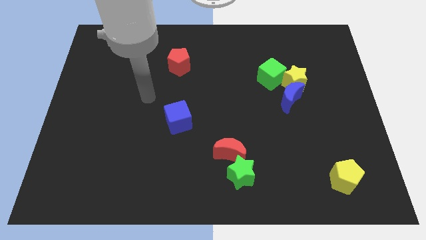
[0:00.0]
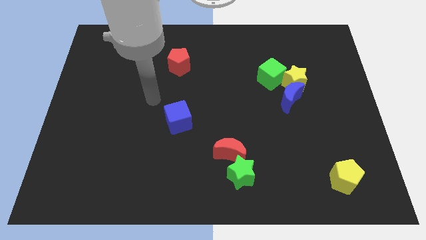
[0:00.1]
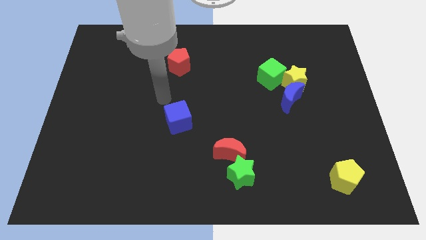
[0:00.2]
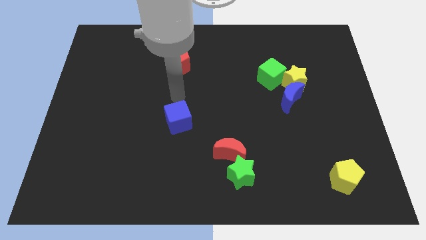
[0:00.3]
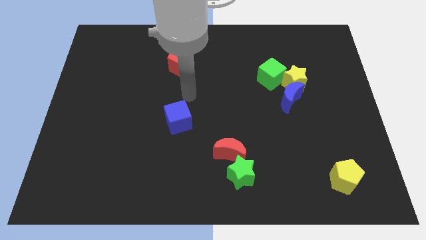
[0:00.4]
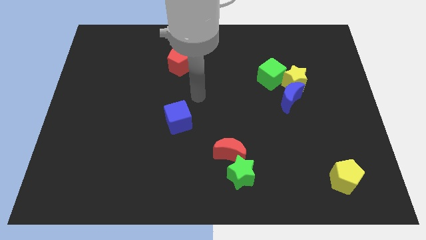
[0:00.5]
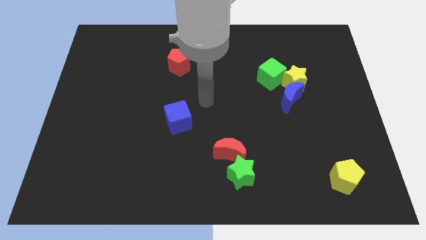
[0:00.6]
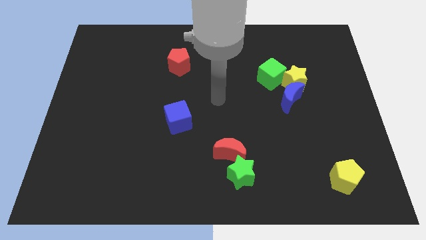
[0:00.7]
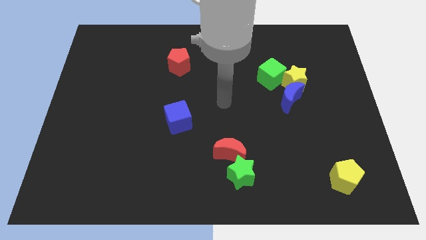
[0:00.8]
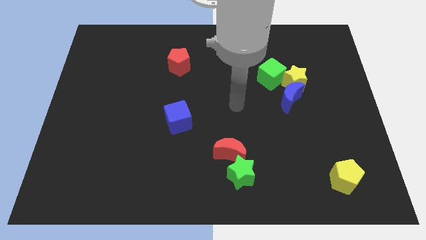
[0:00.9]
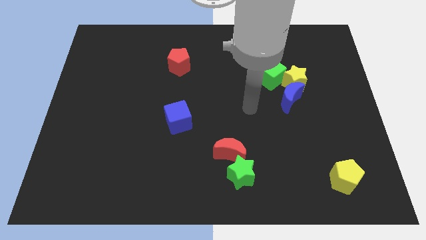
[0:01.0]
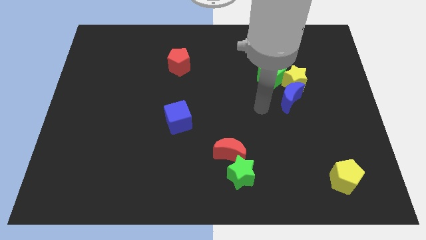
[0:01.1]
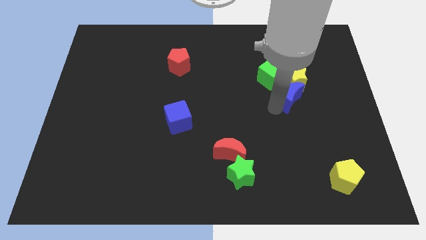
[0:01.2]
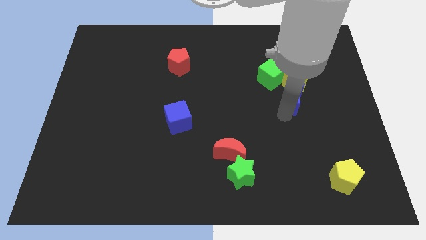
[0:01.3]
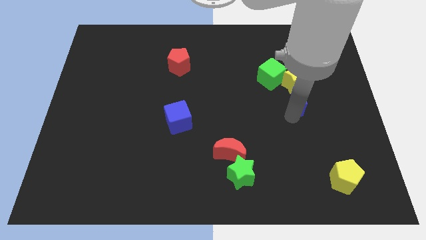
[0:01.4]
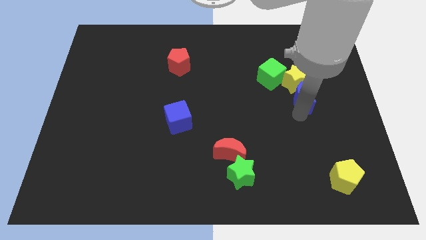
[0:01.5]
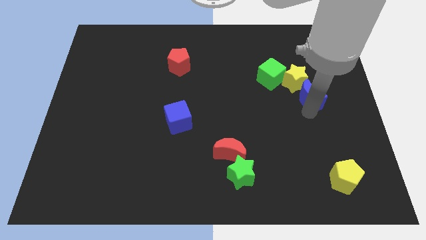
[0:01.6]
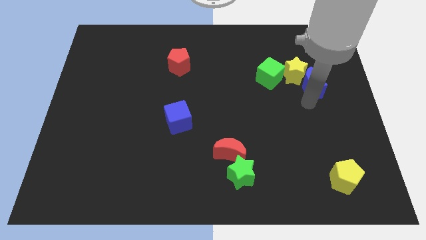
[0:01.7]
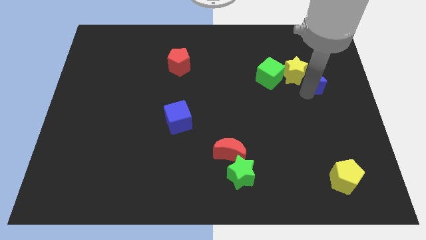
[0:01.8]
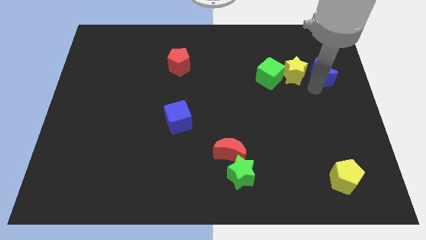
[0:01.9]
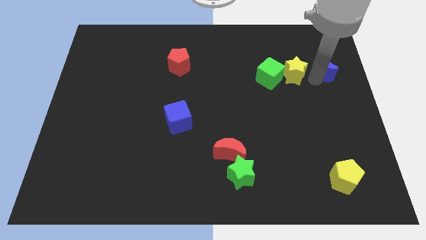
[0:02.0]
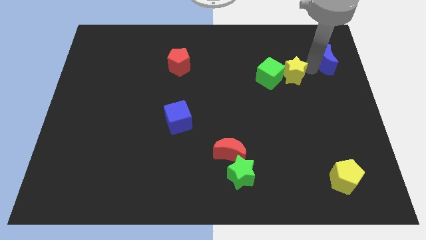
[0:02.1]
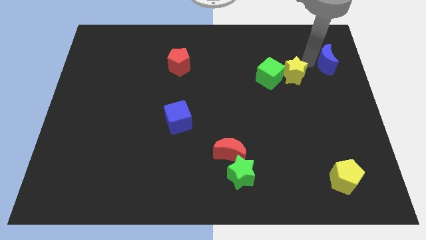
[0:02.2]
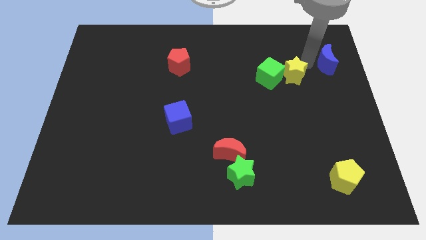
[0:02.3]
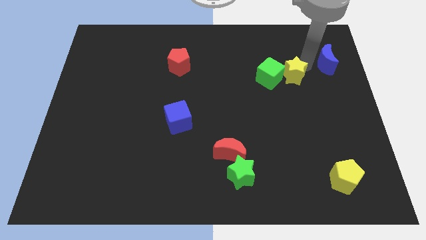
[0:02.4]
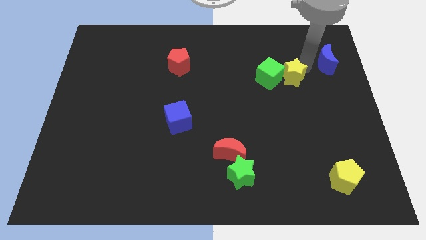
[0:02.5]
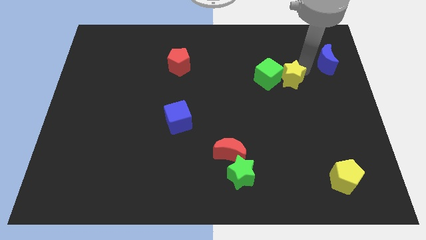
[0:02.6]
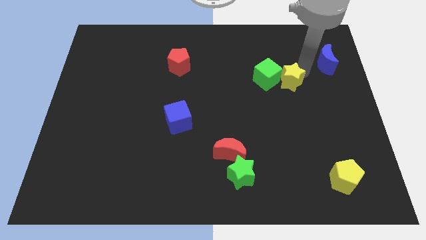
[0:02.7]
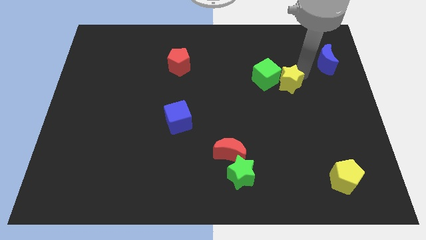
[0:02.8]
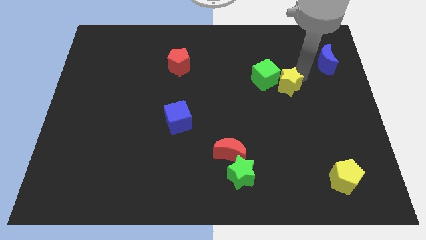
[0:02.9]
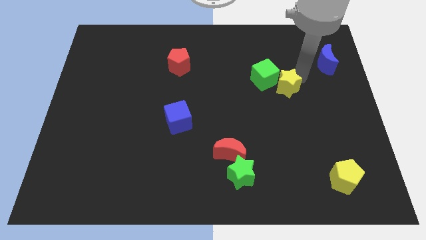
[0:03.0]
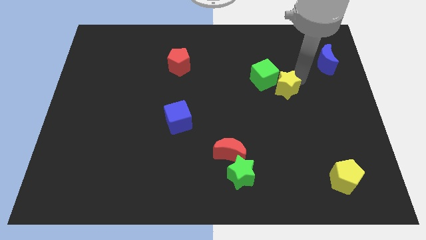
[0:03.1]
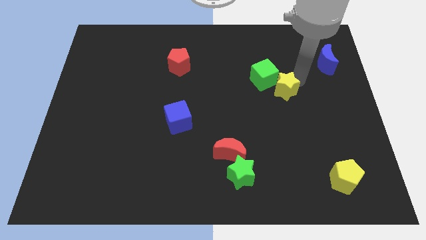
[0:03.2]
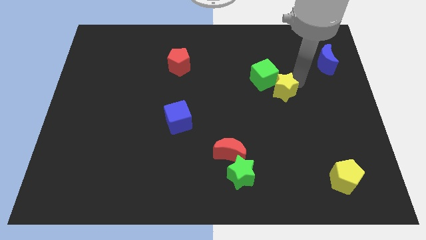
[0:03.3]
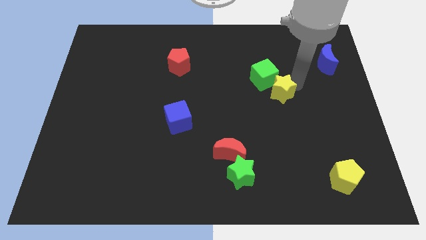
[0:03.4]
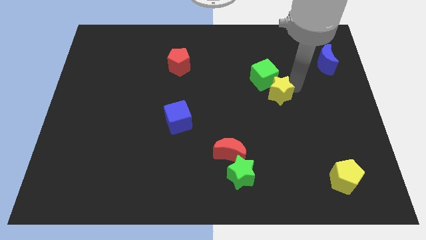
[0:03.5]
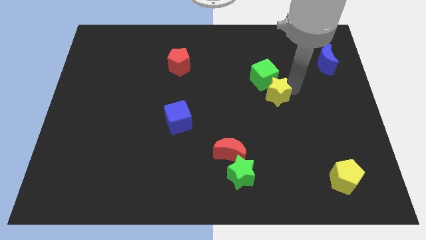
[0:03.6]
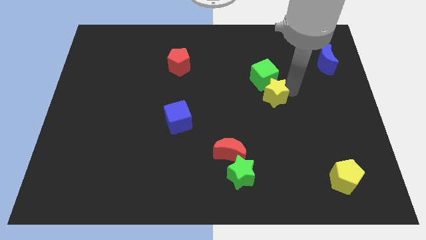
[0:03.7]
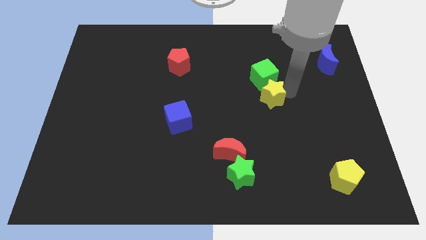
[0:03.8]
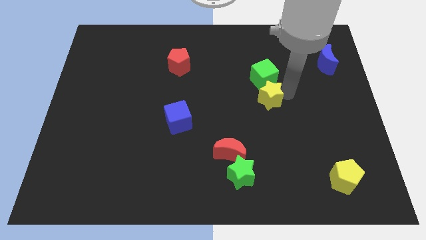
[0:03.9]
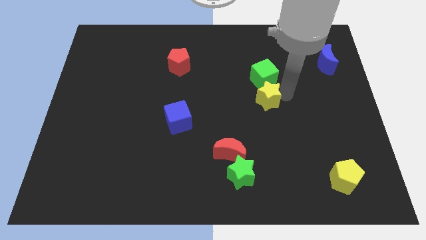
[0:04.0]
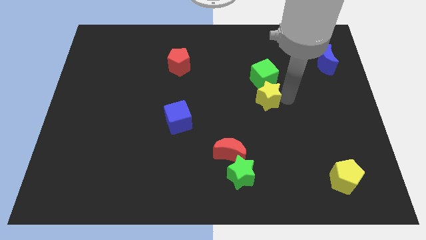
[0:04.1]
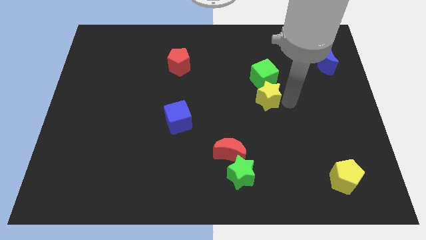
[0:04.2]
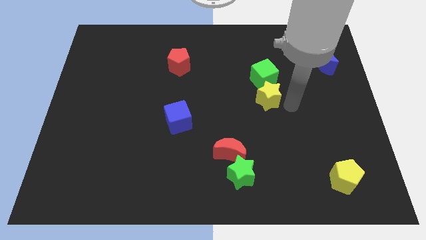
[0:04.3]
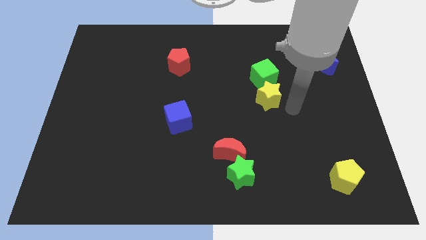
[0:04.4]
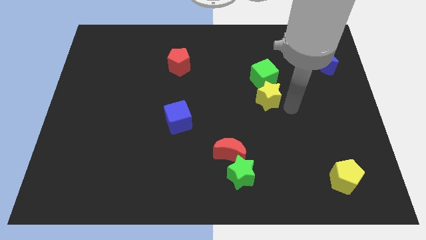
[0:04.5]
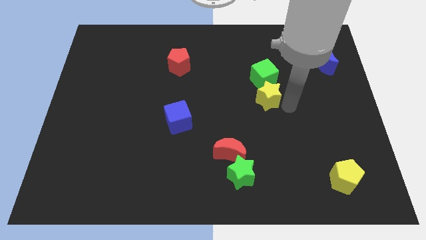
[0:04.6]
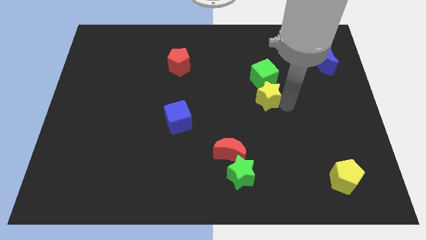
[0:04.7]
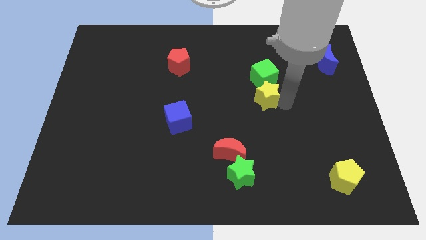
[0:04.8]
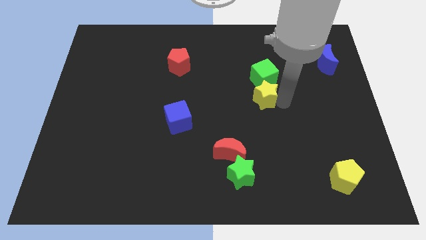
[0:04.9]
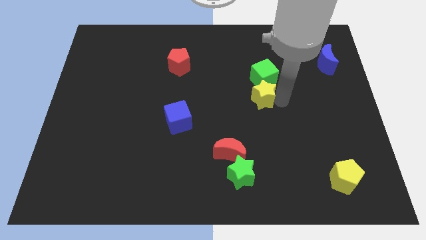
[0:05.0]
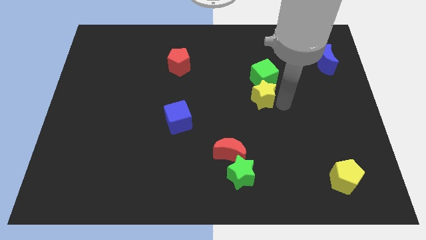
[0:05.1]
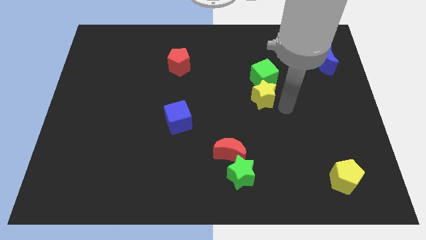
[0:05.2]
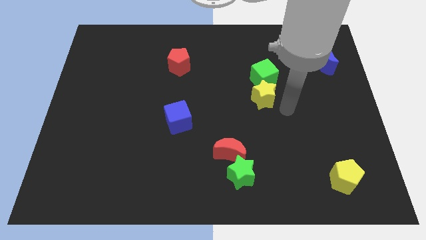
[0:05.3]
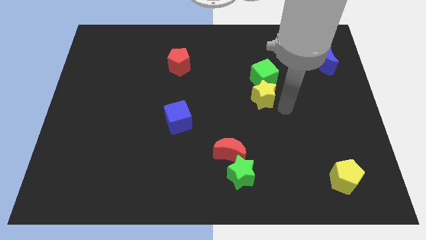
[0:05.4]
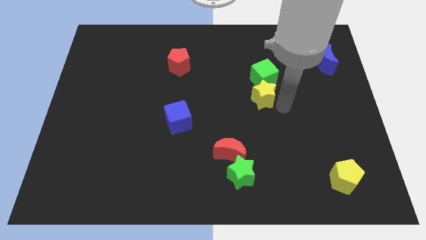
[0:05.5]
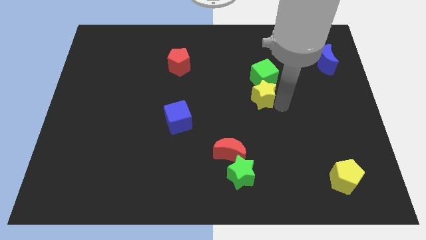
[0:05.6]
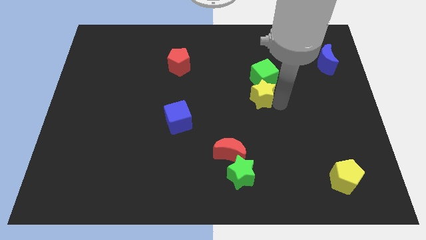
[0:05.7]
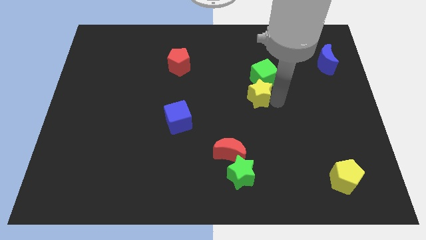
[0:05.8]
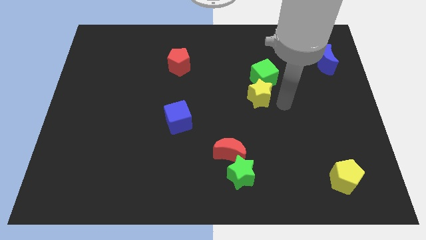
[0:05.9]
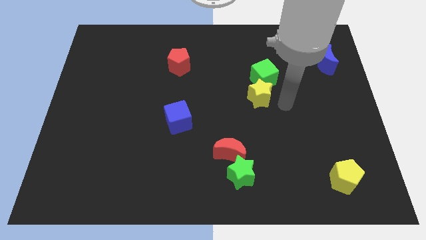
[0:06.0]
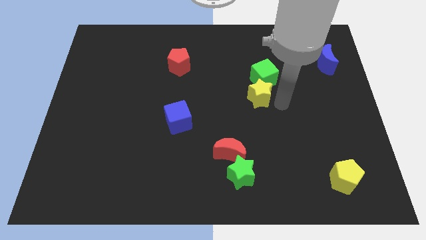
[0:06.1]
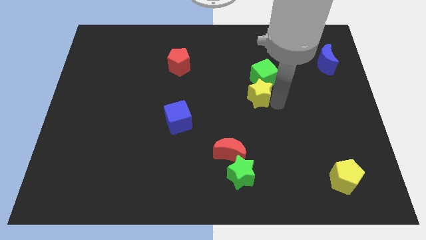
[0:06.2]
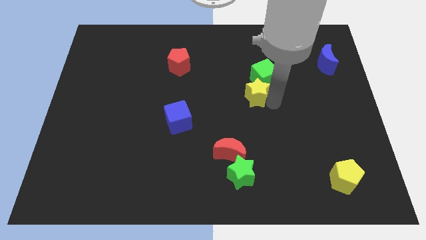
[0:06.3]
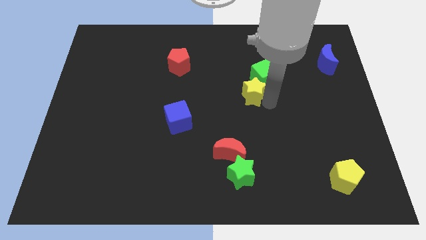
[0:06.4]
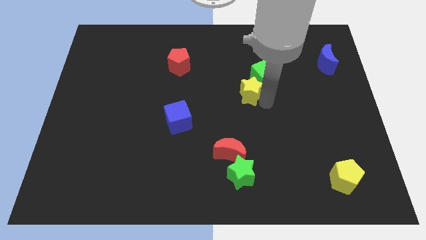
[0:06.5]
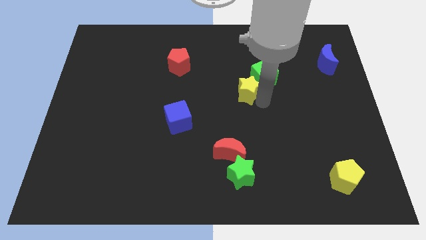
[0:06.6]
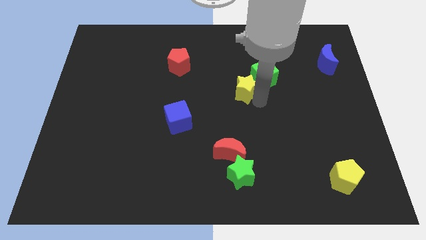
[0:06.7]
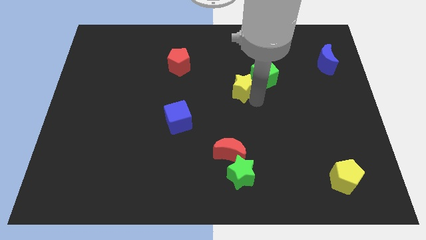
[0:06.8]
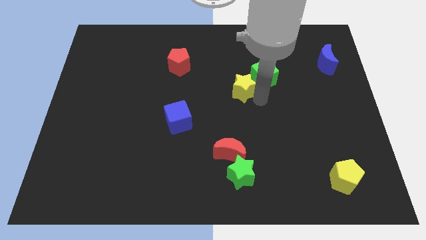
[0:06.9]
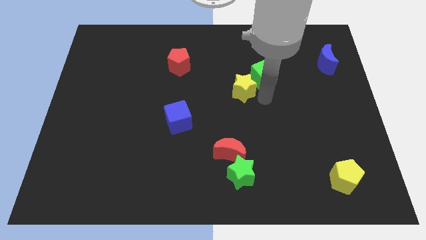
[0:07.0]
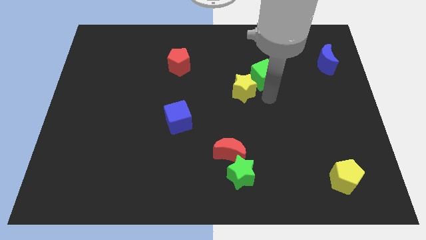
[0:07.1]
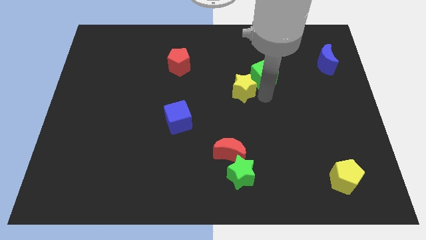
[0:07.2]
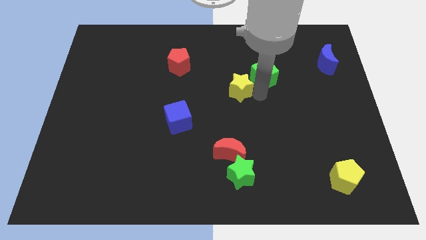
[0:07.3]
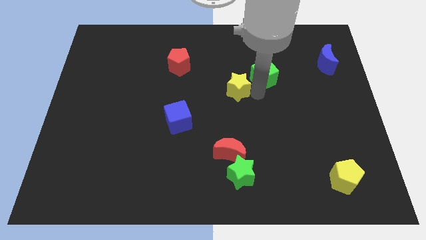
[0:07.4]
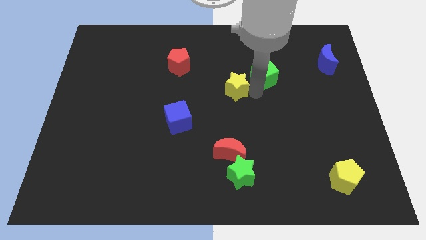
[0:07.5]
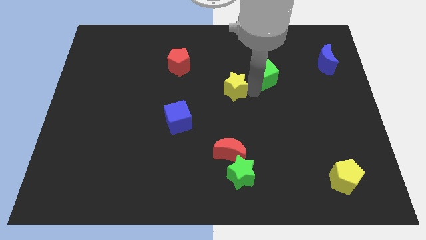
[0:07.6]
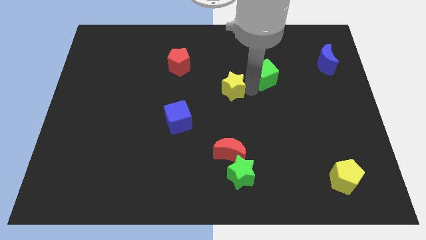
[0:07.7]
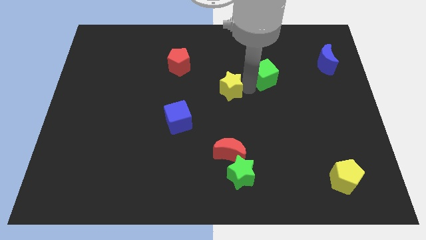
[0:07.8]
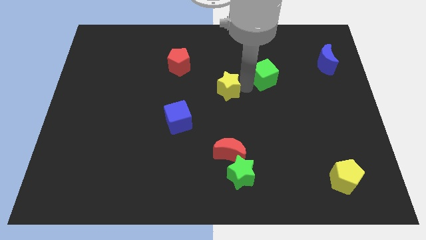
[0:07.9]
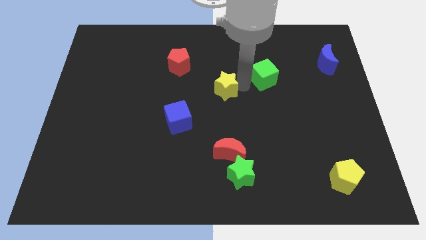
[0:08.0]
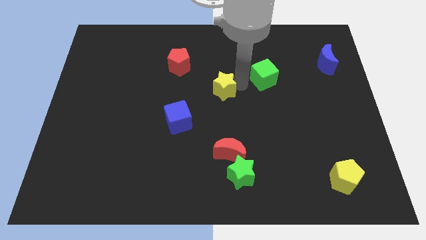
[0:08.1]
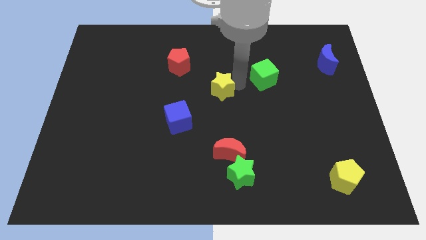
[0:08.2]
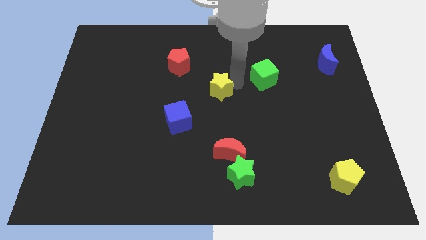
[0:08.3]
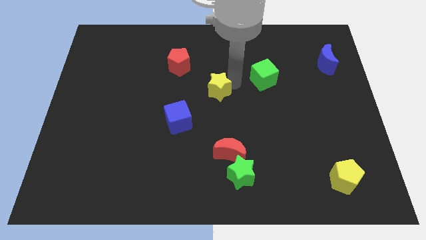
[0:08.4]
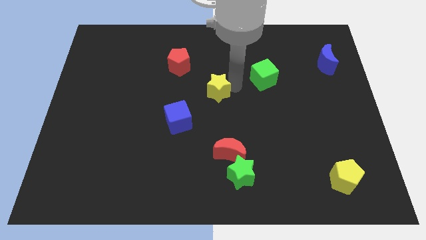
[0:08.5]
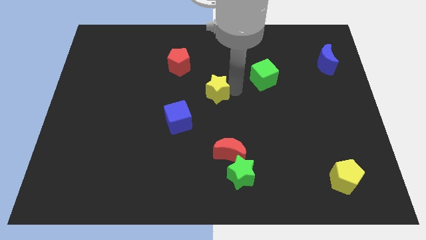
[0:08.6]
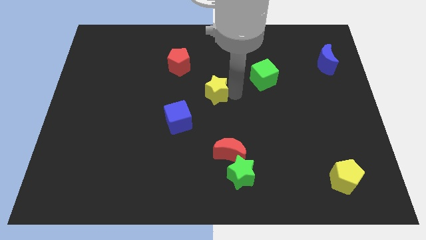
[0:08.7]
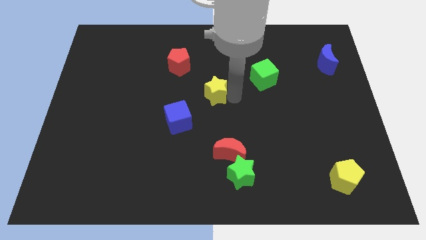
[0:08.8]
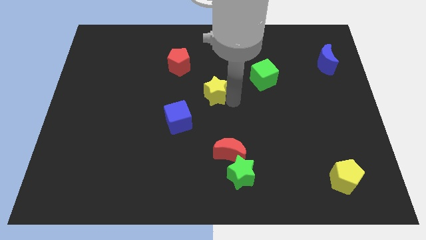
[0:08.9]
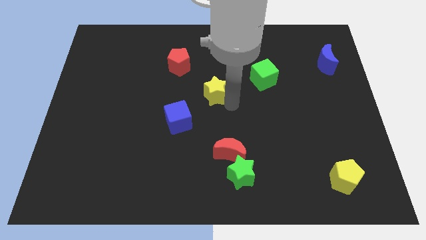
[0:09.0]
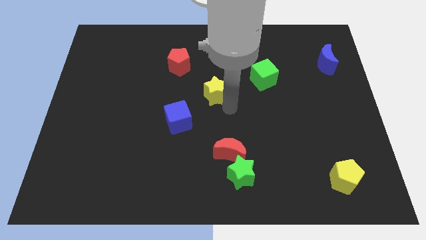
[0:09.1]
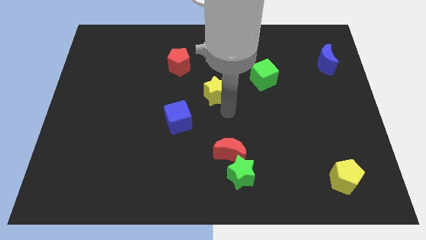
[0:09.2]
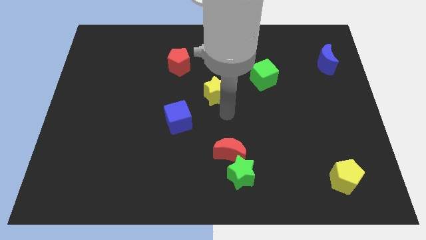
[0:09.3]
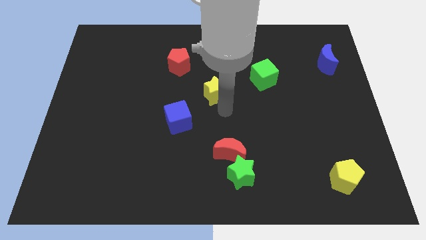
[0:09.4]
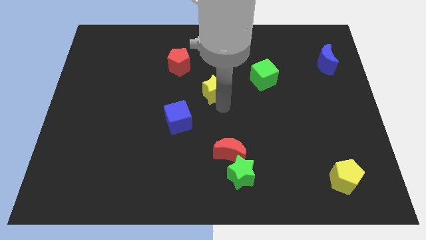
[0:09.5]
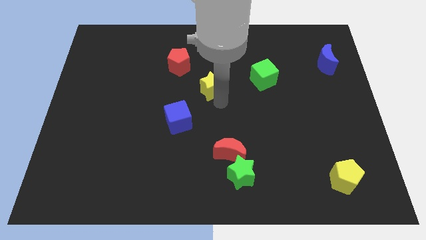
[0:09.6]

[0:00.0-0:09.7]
move the yellow star left
